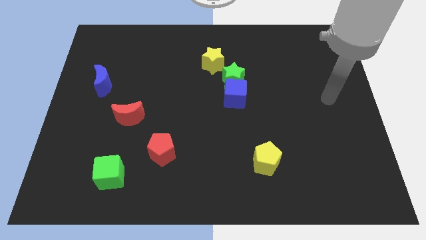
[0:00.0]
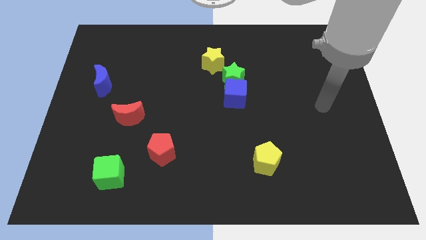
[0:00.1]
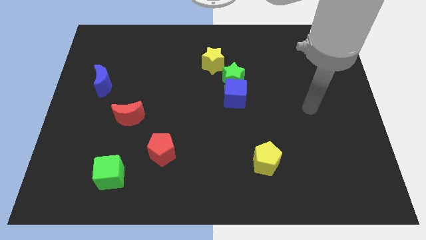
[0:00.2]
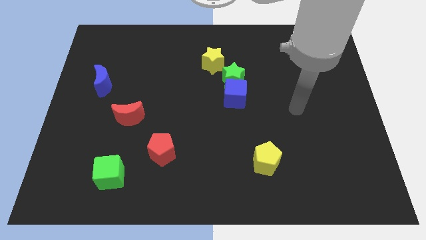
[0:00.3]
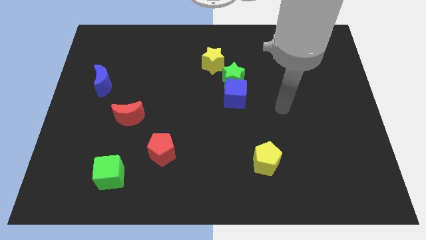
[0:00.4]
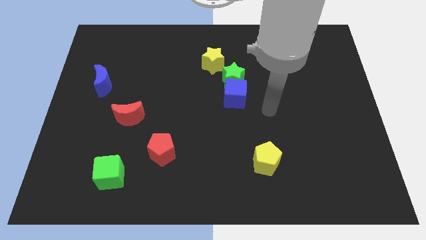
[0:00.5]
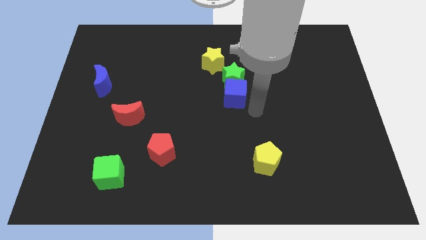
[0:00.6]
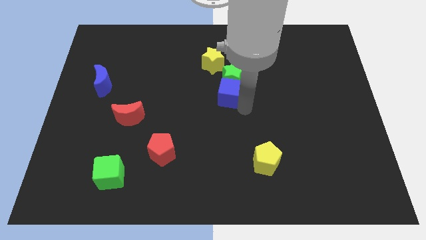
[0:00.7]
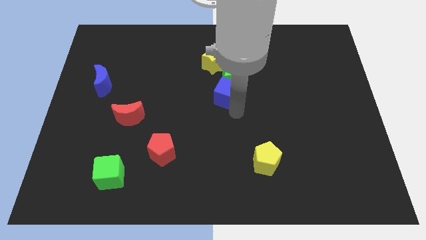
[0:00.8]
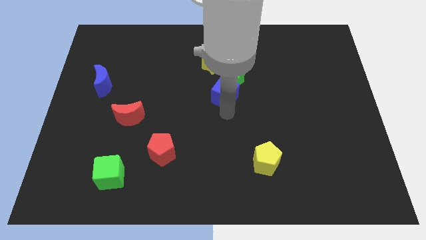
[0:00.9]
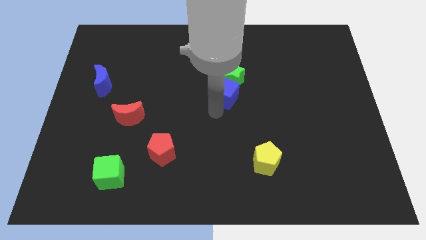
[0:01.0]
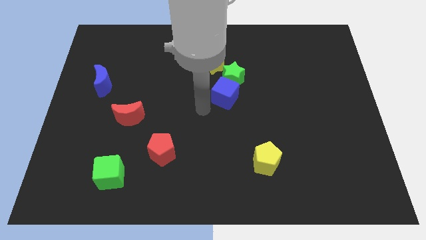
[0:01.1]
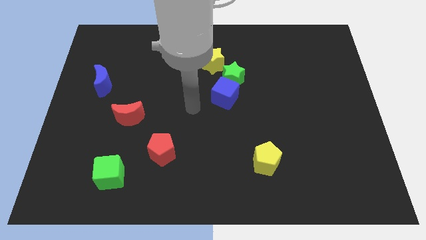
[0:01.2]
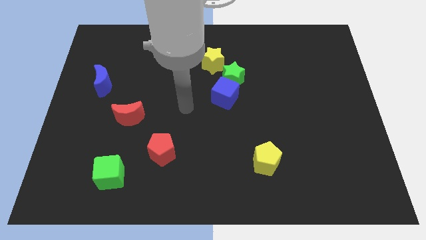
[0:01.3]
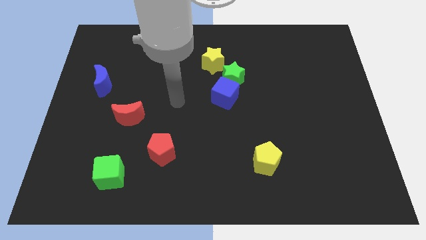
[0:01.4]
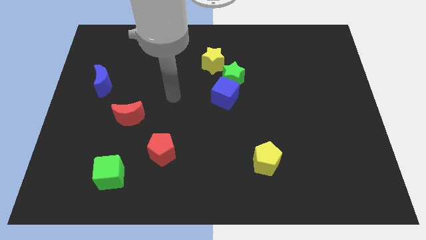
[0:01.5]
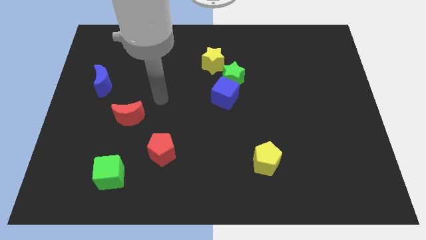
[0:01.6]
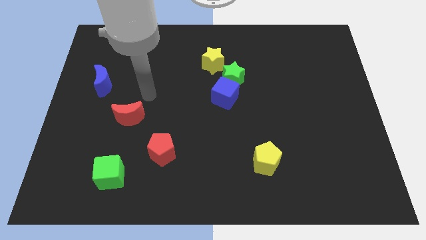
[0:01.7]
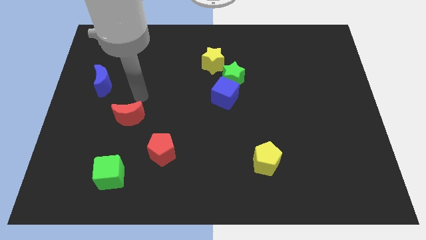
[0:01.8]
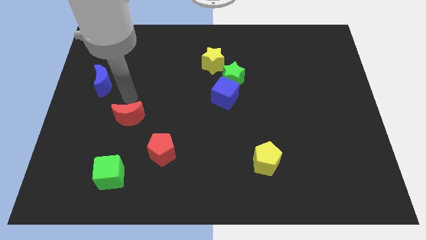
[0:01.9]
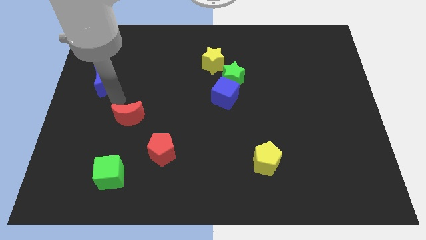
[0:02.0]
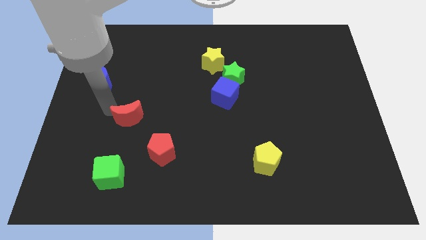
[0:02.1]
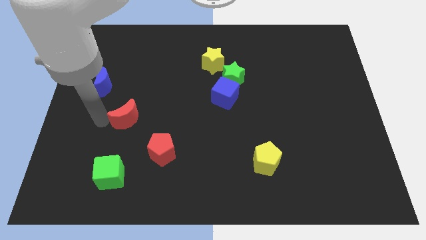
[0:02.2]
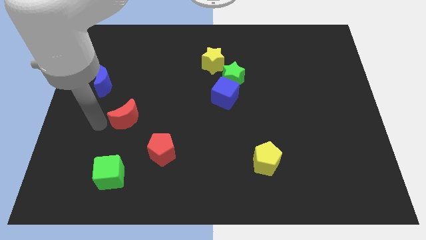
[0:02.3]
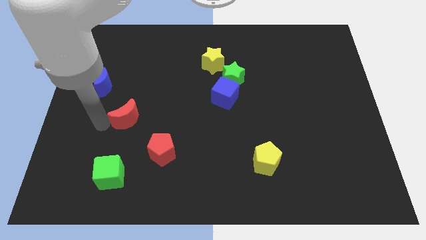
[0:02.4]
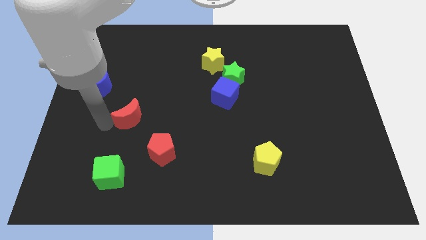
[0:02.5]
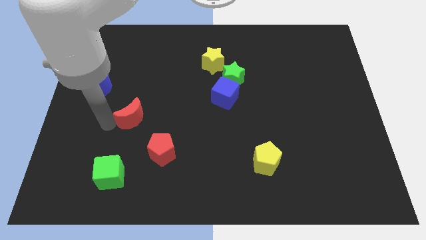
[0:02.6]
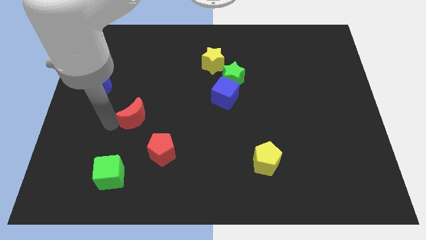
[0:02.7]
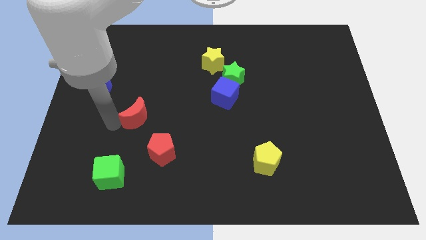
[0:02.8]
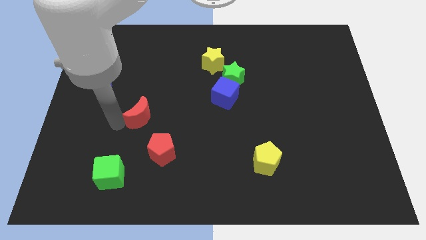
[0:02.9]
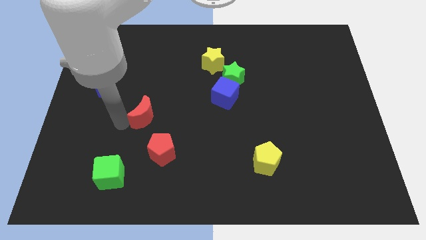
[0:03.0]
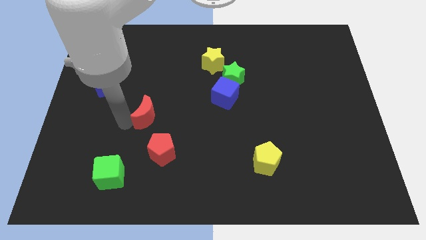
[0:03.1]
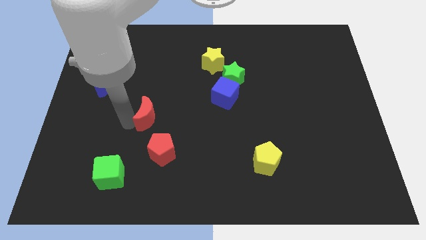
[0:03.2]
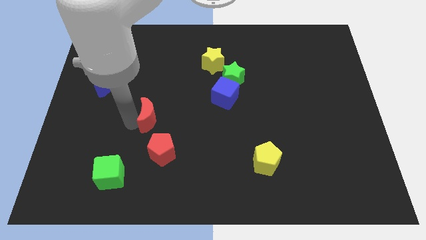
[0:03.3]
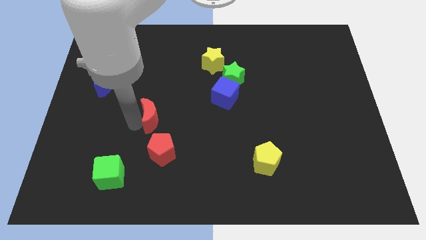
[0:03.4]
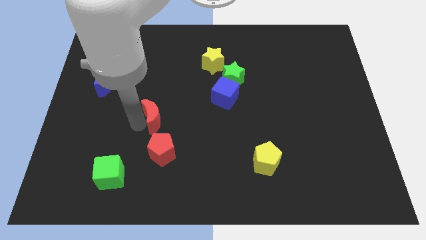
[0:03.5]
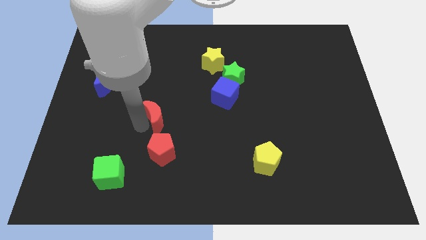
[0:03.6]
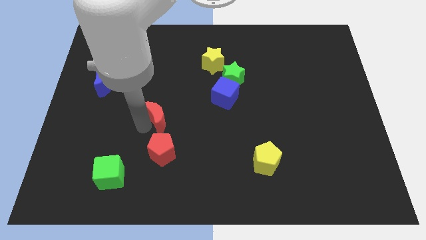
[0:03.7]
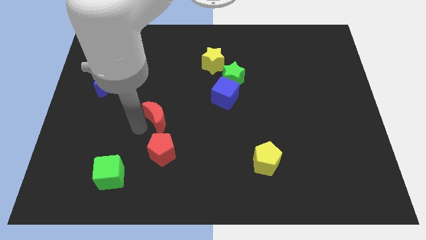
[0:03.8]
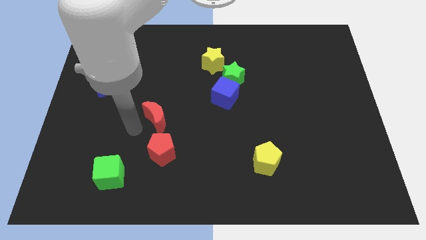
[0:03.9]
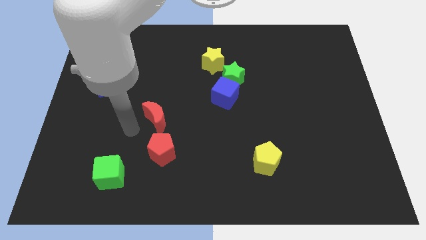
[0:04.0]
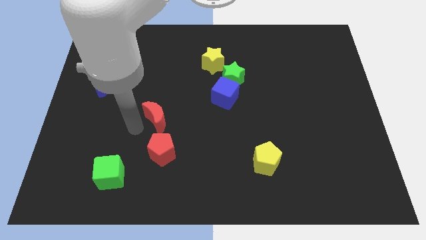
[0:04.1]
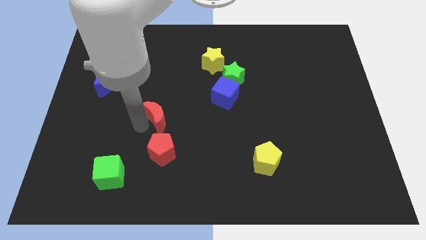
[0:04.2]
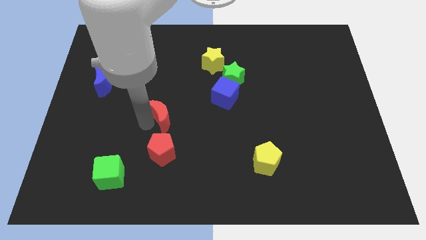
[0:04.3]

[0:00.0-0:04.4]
slightly slide the red moon right

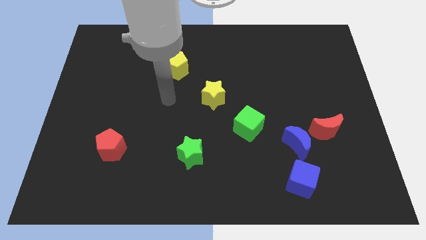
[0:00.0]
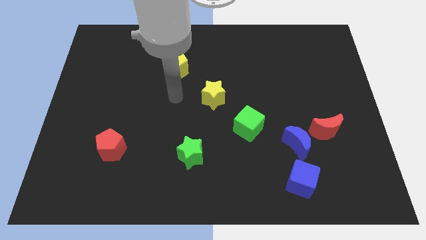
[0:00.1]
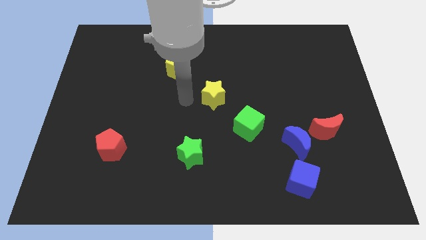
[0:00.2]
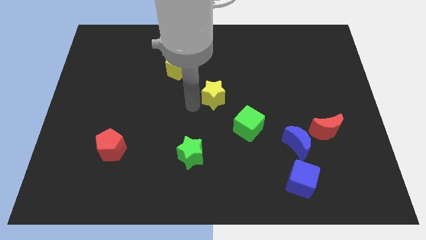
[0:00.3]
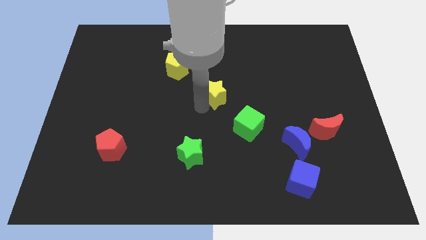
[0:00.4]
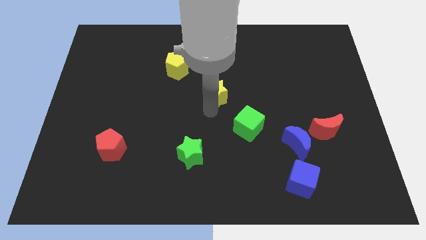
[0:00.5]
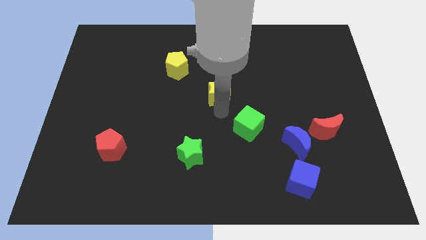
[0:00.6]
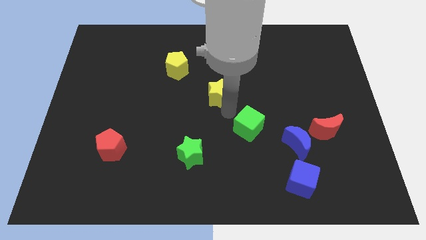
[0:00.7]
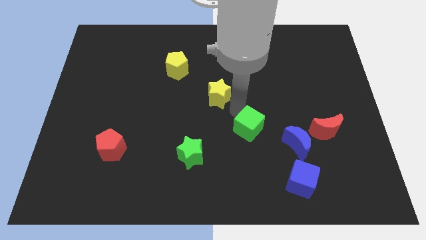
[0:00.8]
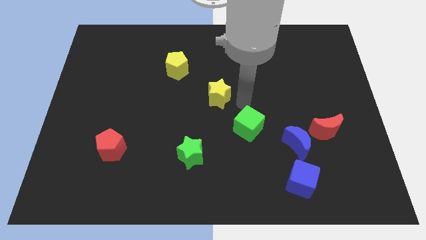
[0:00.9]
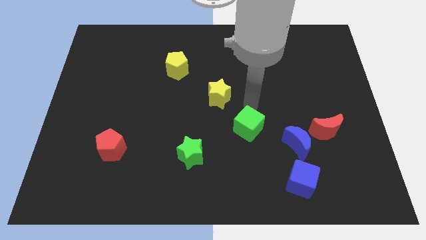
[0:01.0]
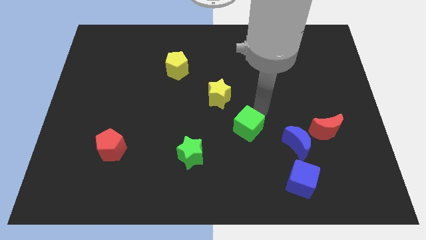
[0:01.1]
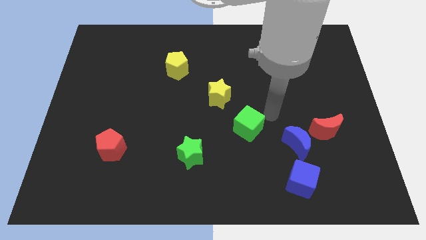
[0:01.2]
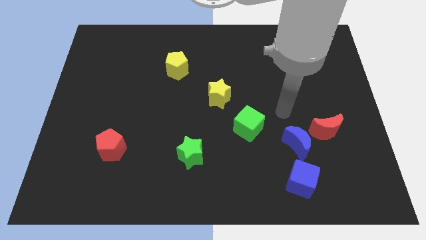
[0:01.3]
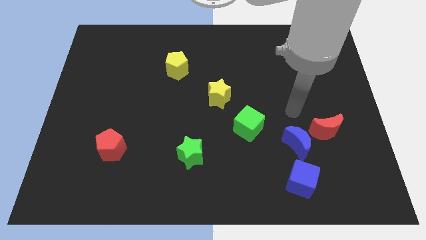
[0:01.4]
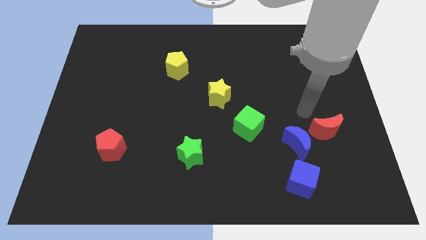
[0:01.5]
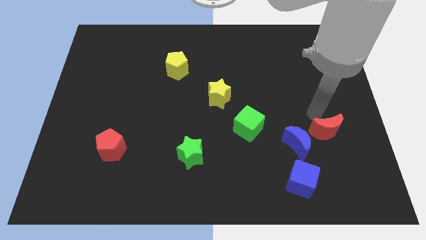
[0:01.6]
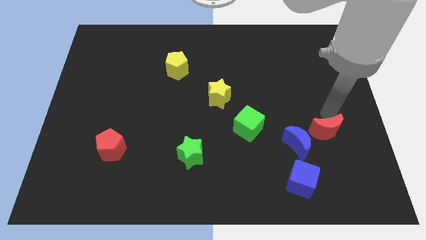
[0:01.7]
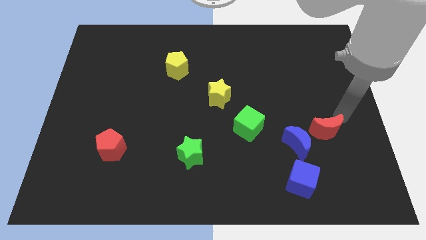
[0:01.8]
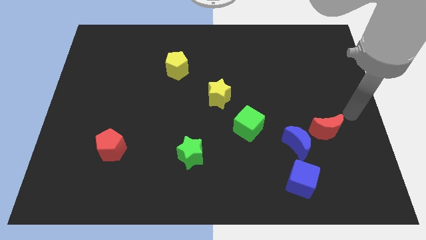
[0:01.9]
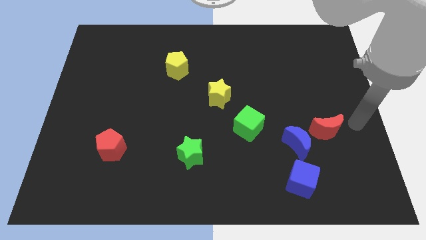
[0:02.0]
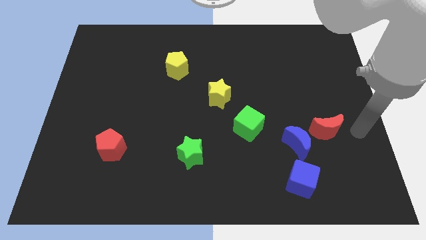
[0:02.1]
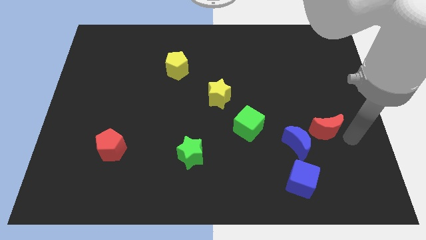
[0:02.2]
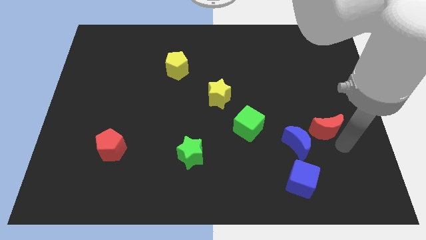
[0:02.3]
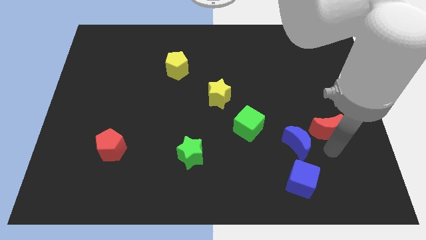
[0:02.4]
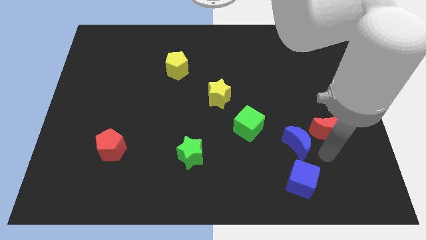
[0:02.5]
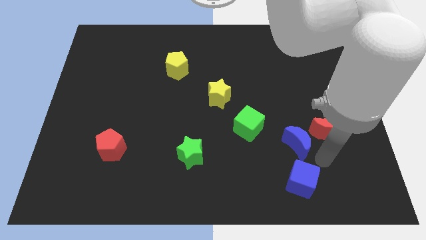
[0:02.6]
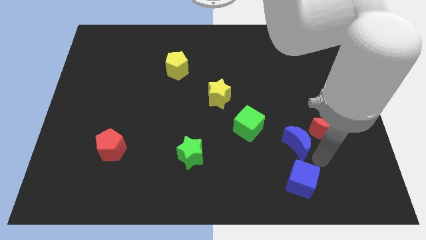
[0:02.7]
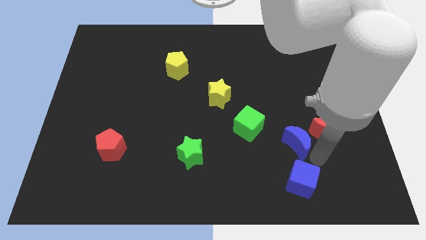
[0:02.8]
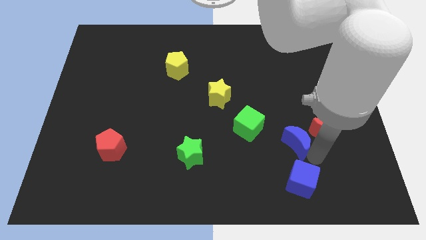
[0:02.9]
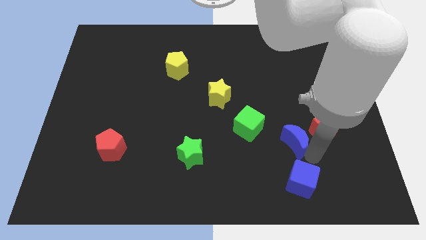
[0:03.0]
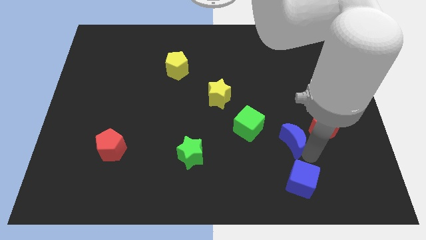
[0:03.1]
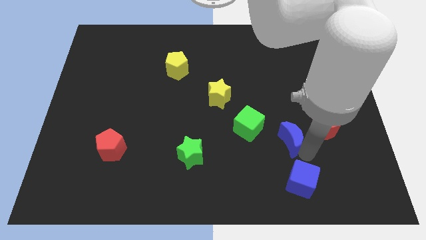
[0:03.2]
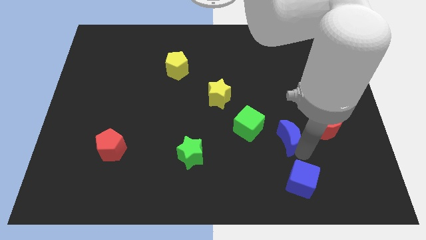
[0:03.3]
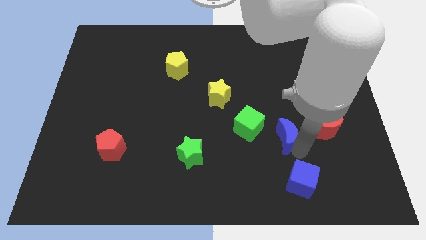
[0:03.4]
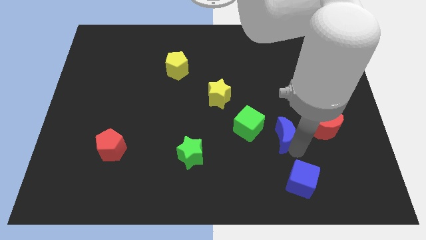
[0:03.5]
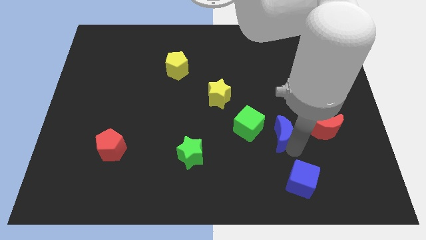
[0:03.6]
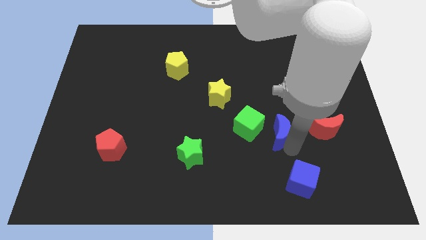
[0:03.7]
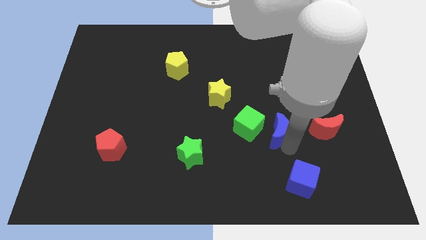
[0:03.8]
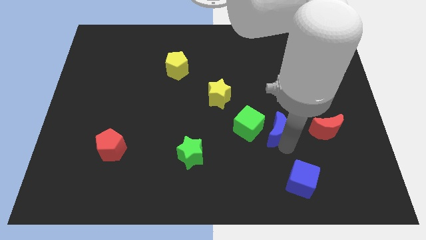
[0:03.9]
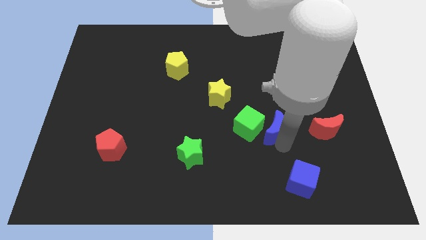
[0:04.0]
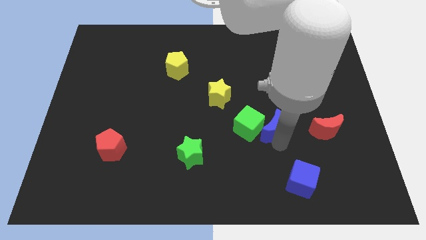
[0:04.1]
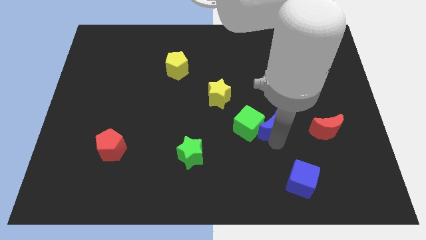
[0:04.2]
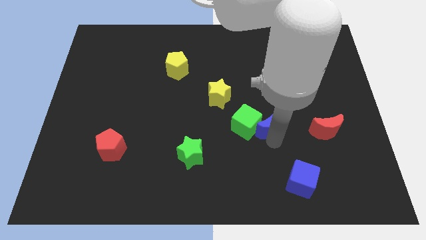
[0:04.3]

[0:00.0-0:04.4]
slide the blue moon diagonally up and left a bit
